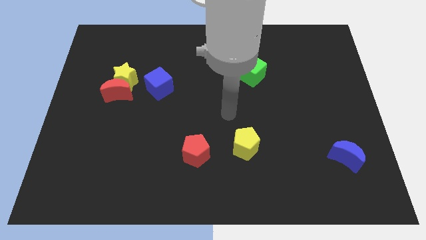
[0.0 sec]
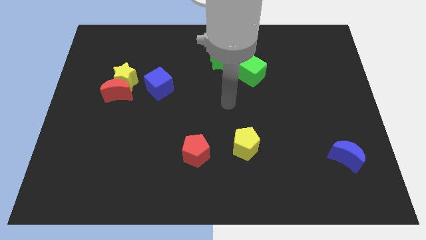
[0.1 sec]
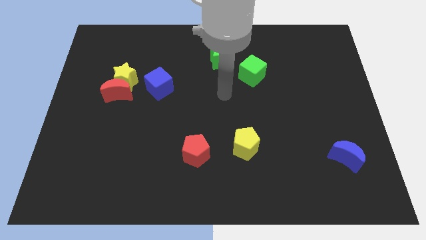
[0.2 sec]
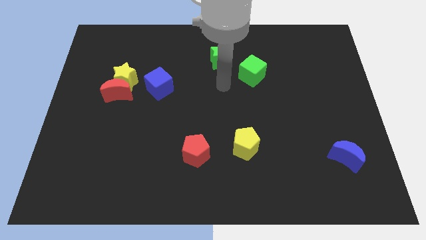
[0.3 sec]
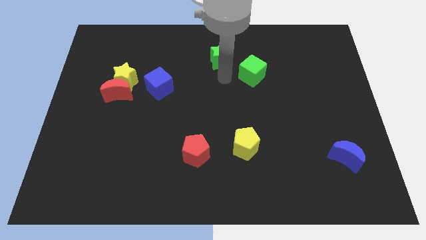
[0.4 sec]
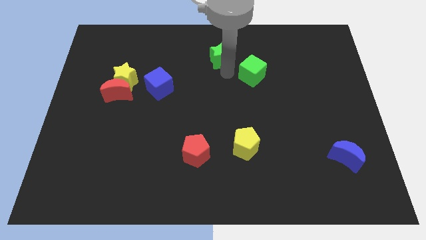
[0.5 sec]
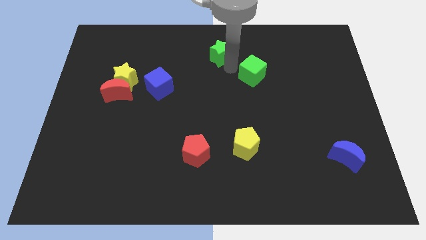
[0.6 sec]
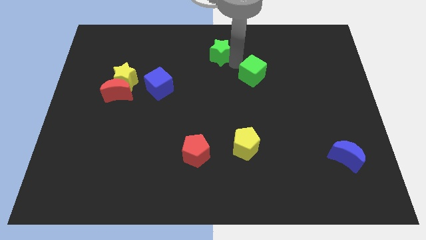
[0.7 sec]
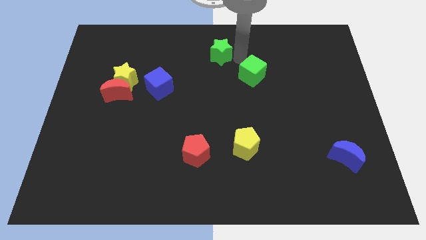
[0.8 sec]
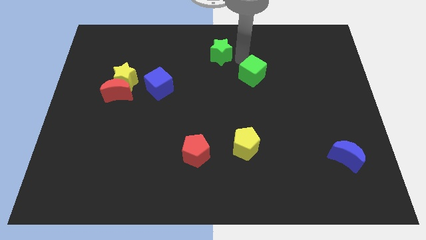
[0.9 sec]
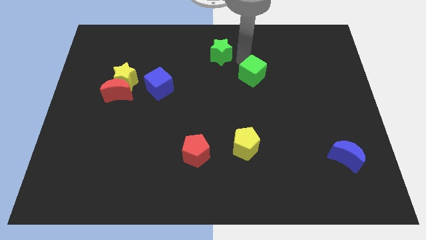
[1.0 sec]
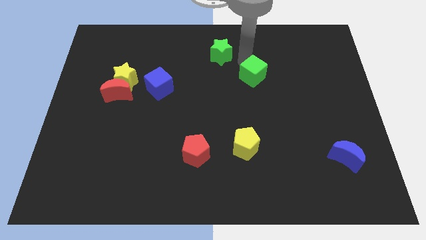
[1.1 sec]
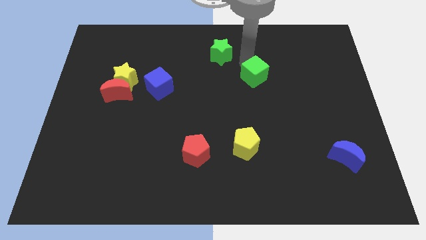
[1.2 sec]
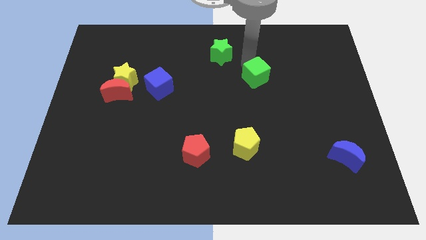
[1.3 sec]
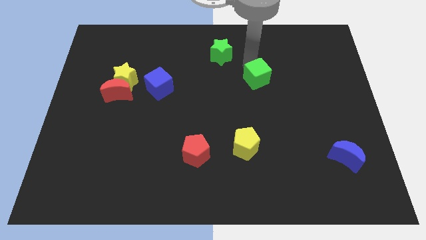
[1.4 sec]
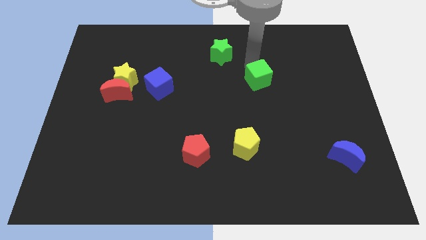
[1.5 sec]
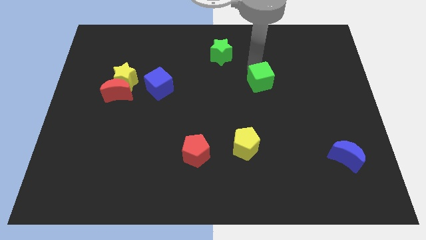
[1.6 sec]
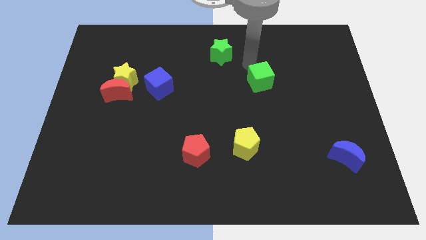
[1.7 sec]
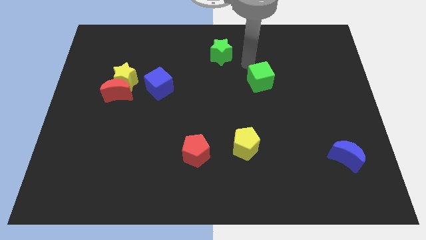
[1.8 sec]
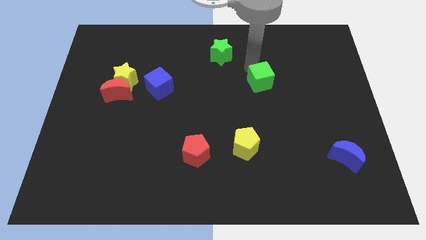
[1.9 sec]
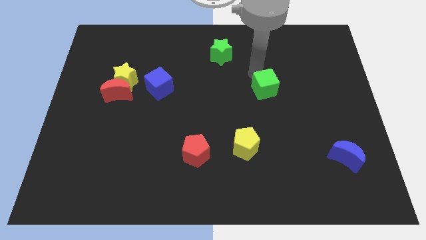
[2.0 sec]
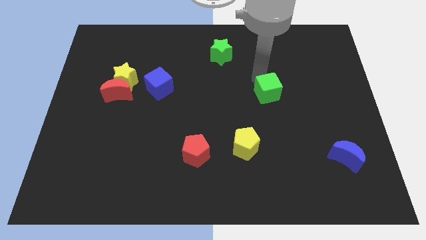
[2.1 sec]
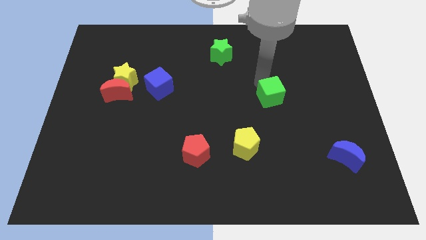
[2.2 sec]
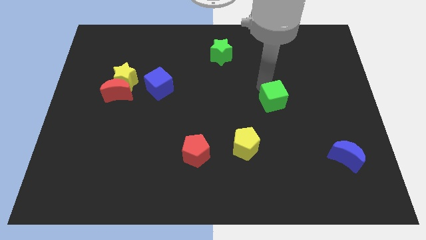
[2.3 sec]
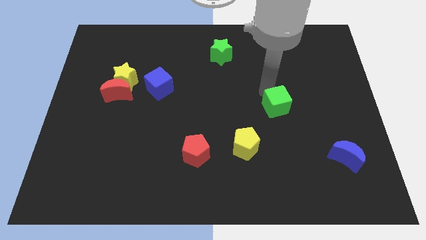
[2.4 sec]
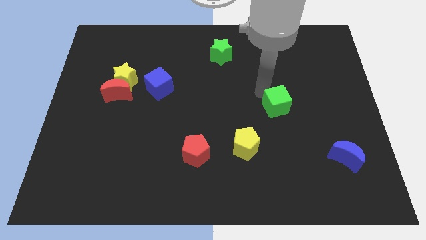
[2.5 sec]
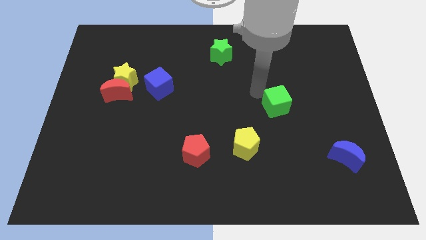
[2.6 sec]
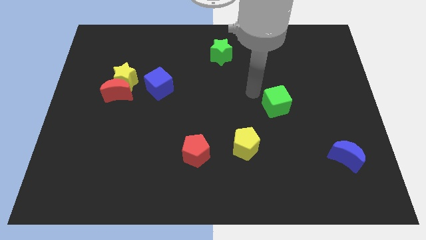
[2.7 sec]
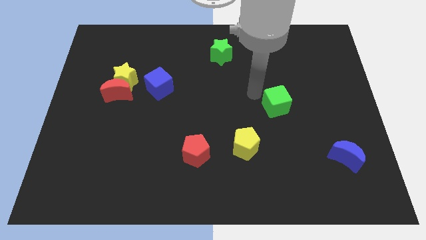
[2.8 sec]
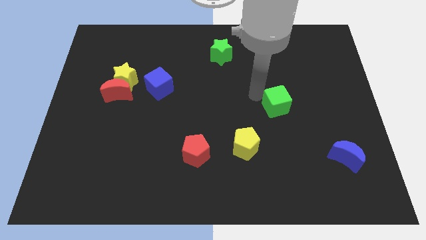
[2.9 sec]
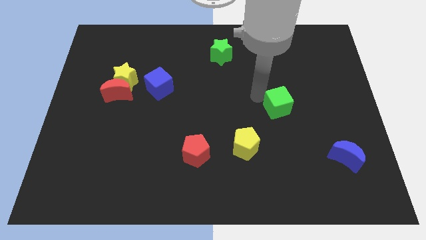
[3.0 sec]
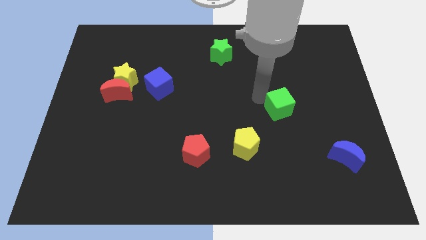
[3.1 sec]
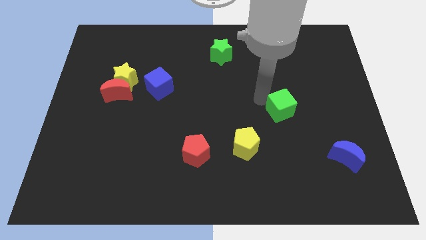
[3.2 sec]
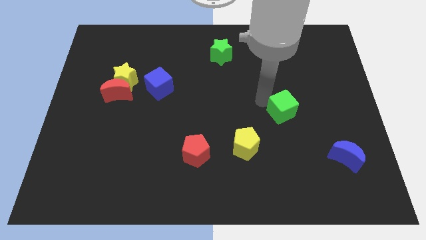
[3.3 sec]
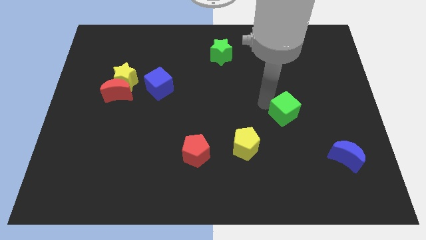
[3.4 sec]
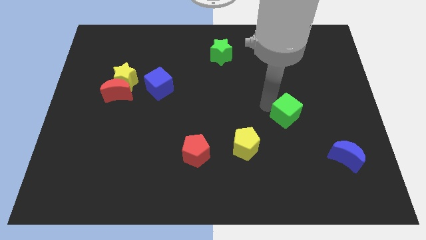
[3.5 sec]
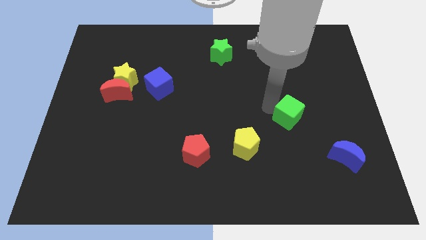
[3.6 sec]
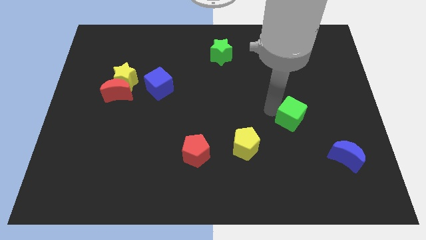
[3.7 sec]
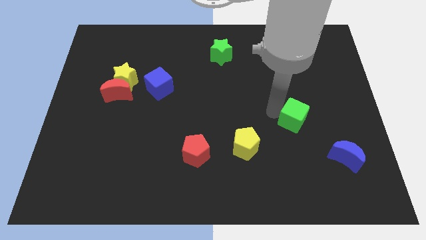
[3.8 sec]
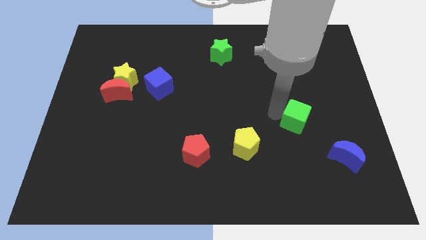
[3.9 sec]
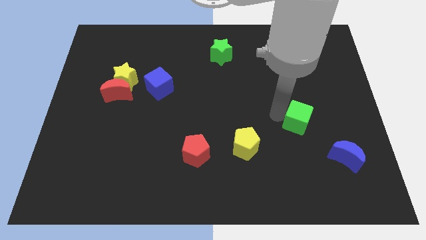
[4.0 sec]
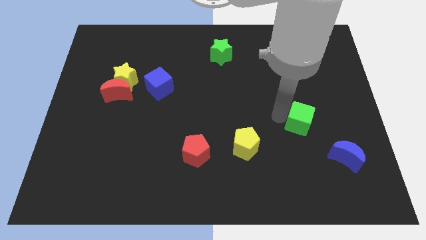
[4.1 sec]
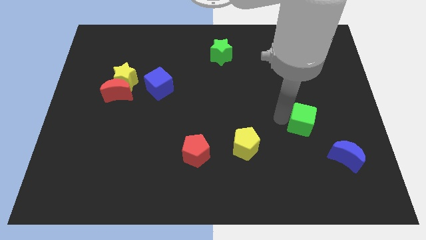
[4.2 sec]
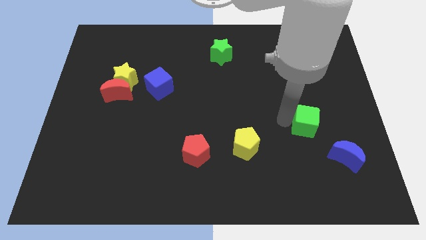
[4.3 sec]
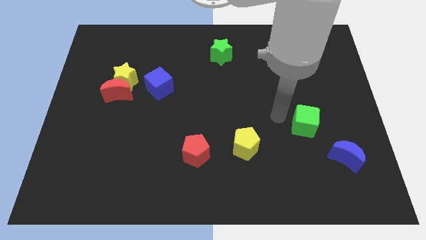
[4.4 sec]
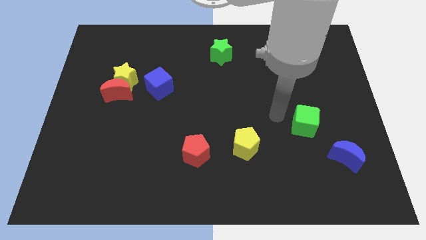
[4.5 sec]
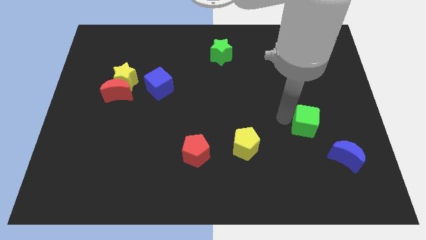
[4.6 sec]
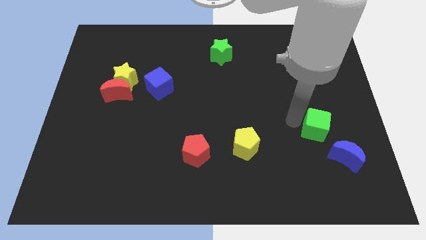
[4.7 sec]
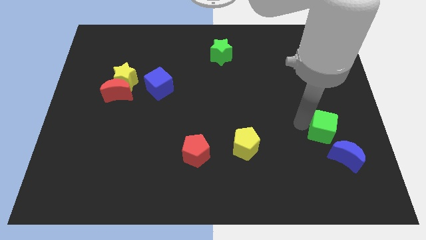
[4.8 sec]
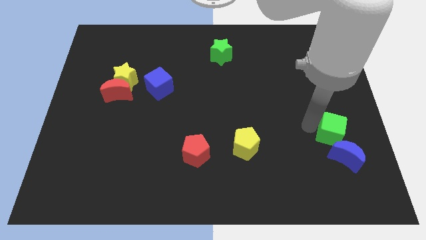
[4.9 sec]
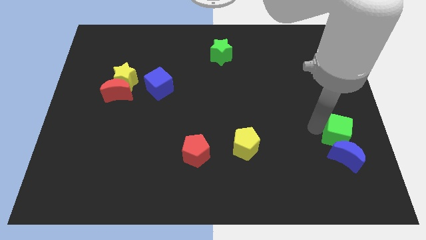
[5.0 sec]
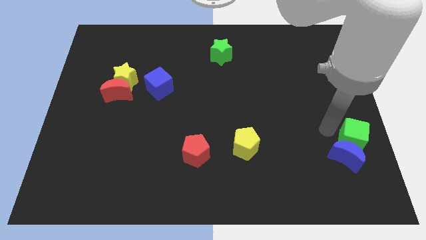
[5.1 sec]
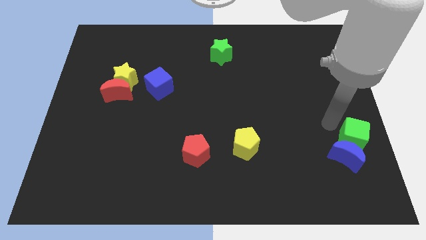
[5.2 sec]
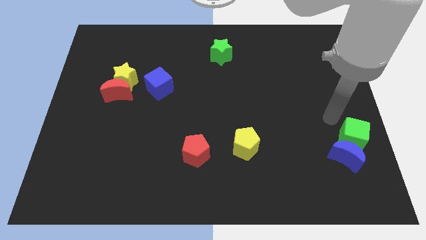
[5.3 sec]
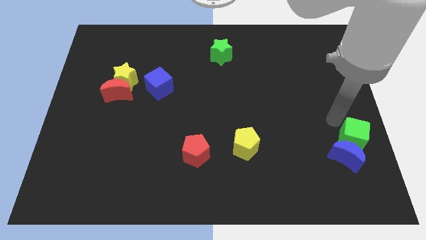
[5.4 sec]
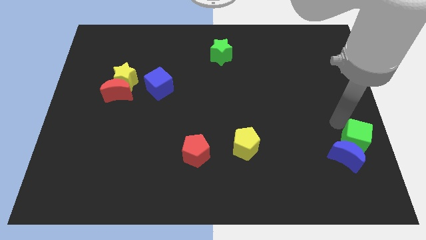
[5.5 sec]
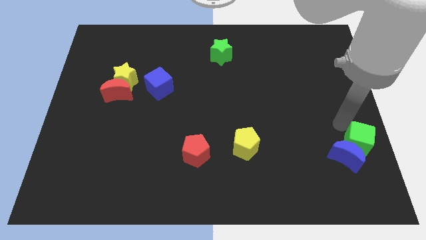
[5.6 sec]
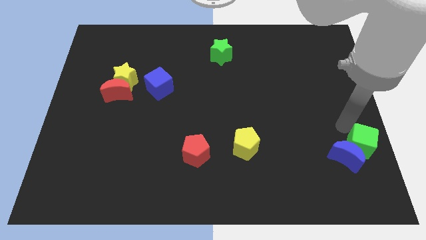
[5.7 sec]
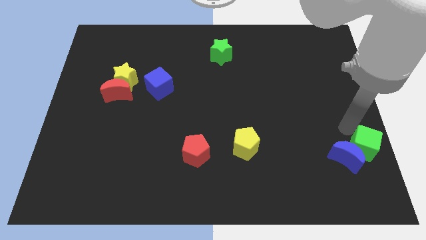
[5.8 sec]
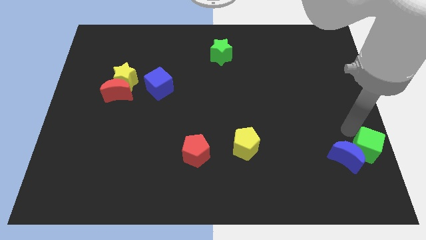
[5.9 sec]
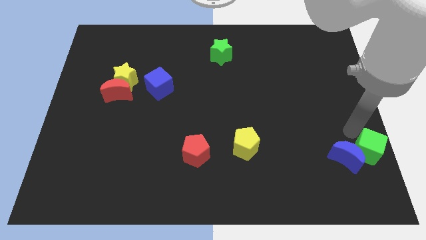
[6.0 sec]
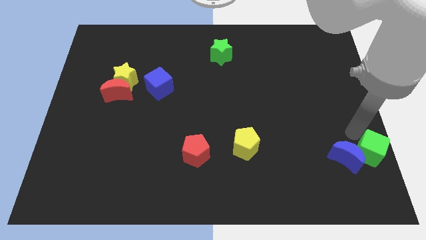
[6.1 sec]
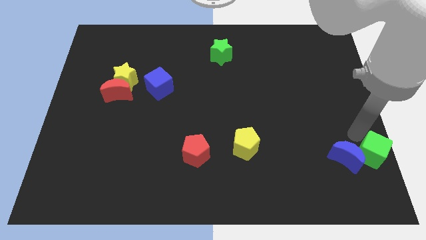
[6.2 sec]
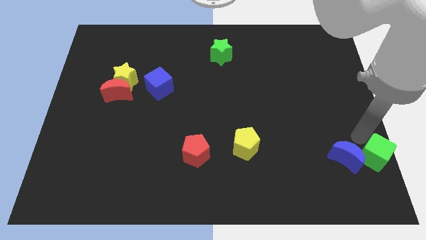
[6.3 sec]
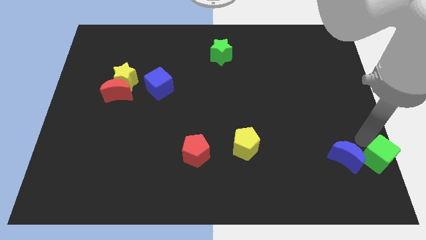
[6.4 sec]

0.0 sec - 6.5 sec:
move the green cube to the bottom right corner

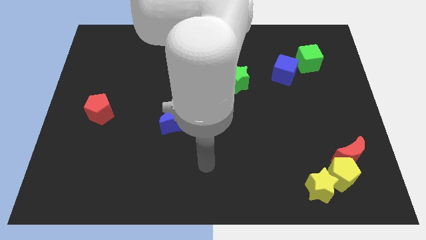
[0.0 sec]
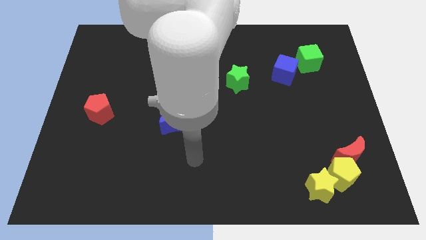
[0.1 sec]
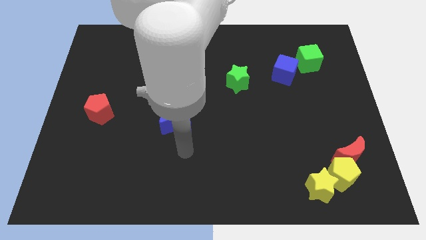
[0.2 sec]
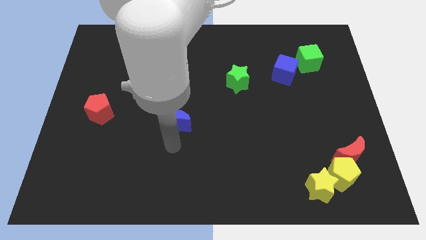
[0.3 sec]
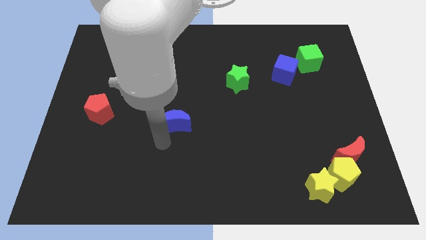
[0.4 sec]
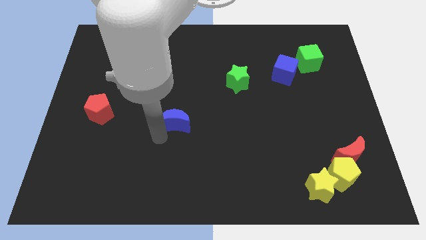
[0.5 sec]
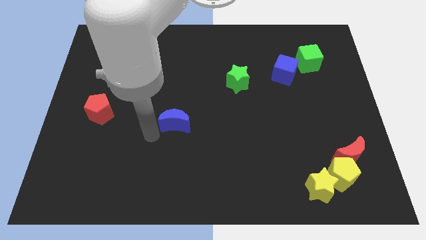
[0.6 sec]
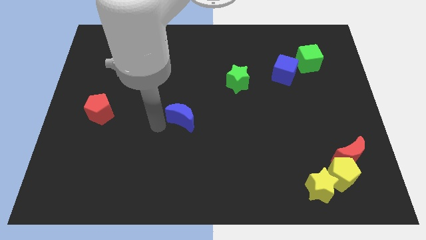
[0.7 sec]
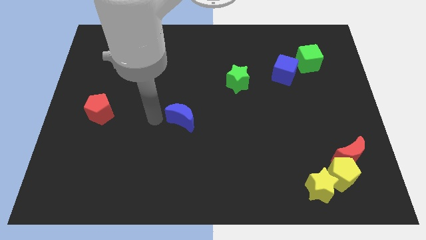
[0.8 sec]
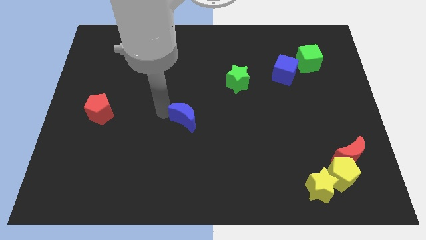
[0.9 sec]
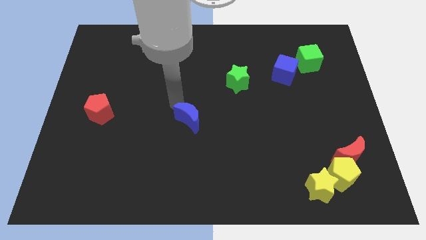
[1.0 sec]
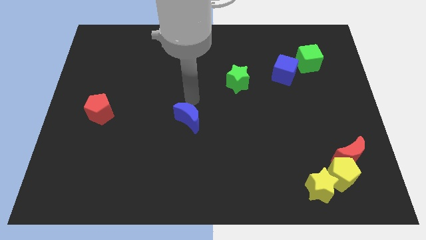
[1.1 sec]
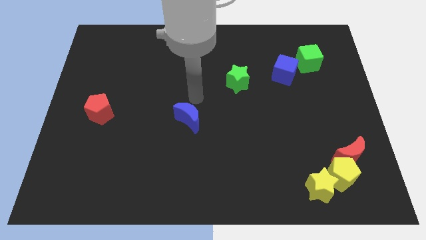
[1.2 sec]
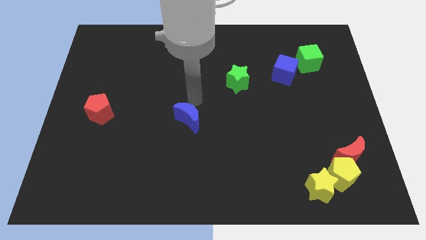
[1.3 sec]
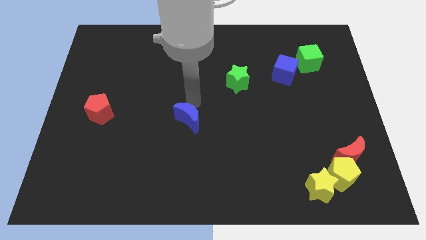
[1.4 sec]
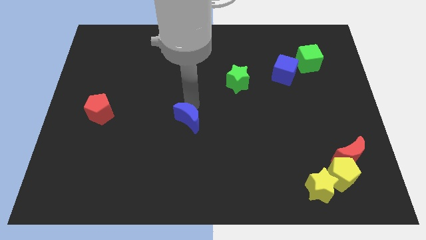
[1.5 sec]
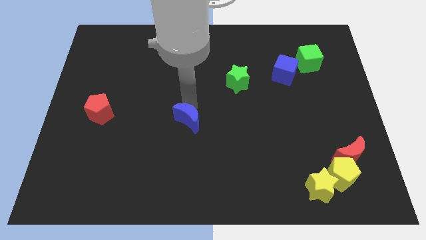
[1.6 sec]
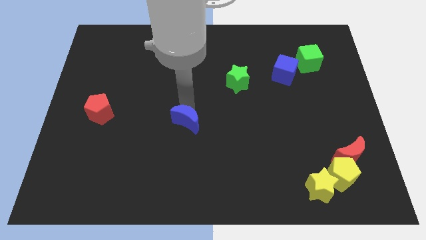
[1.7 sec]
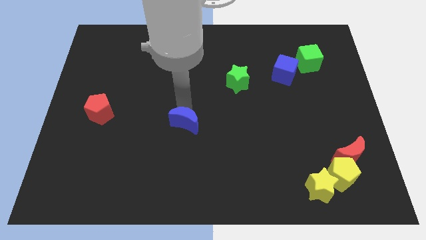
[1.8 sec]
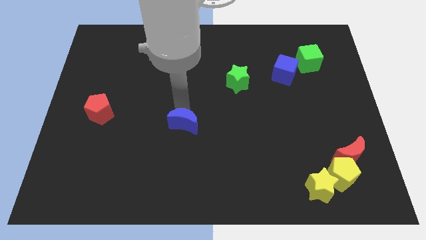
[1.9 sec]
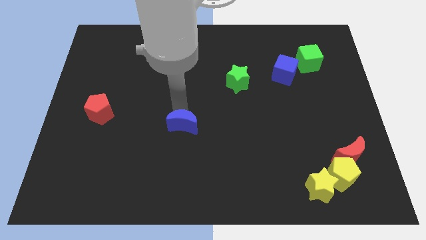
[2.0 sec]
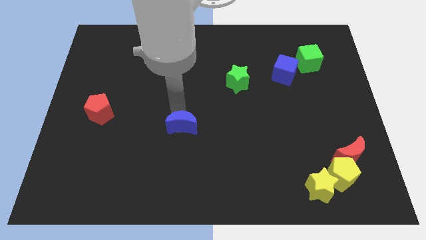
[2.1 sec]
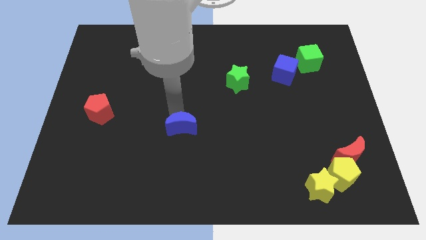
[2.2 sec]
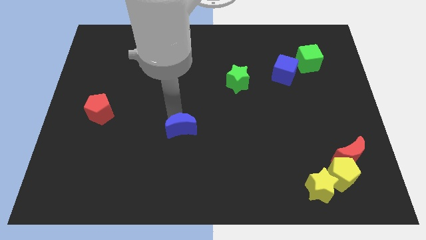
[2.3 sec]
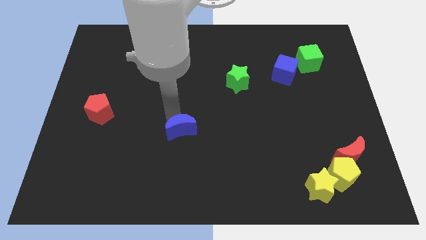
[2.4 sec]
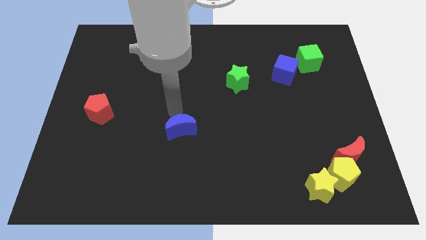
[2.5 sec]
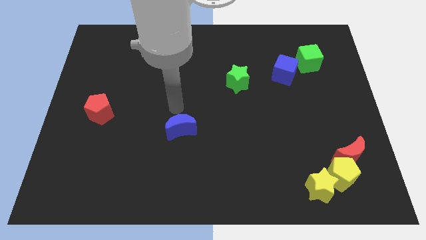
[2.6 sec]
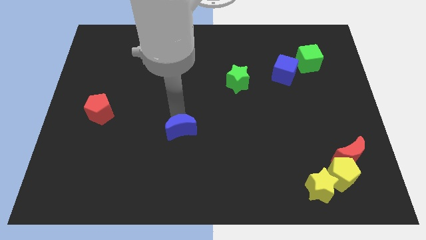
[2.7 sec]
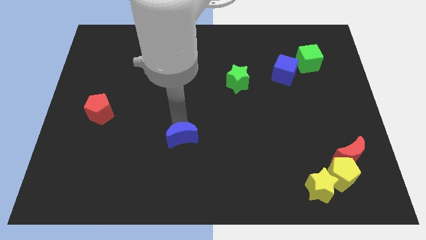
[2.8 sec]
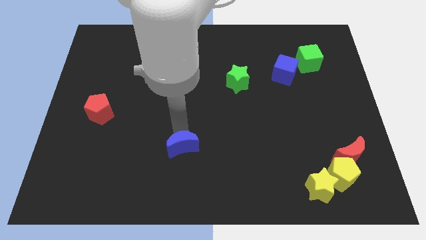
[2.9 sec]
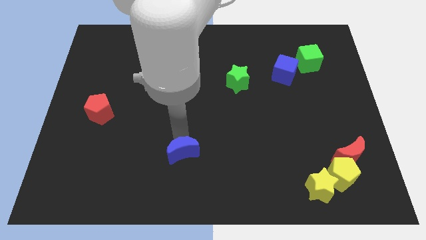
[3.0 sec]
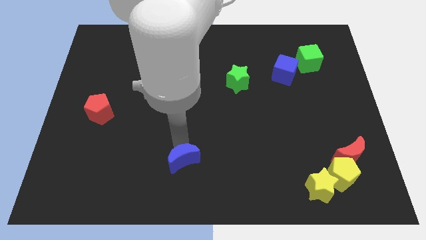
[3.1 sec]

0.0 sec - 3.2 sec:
slide the blue moon to the bottom
